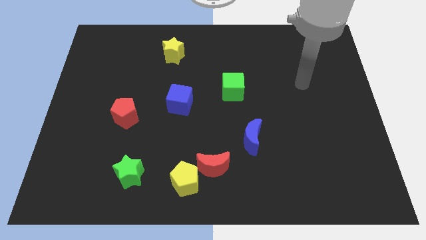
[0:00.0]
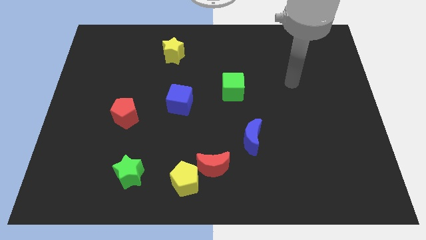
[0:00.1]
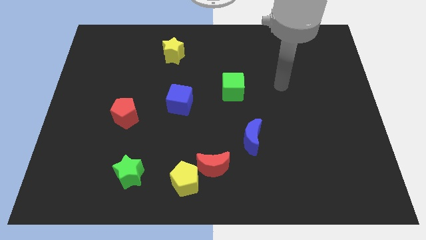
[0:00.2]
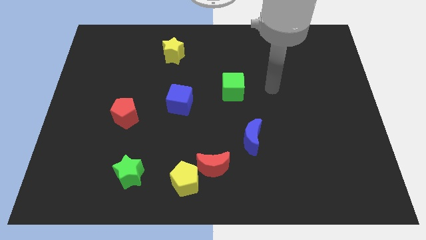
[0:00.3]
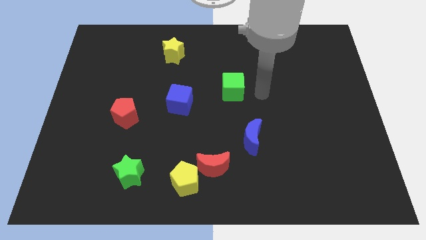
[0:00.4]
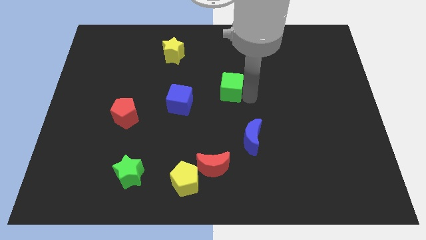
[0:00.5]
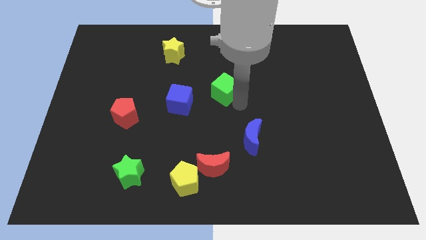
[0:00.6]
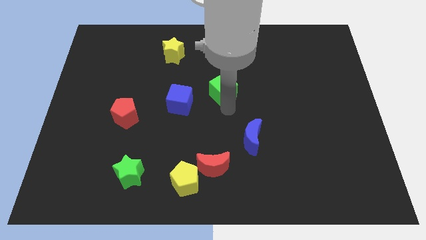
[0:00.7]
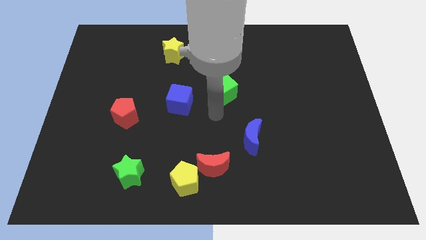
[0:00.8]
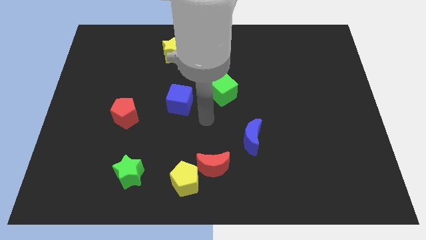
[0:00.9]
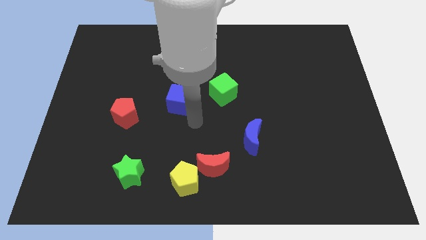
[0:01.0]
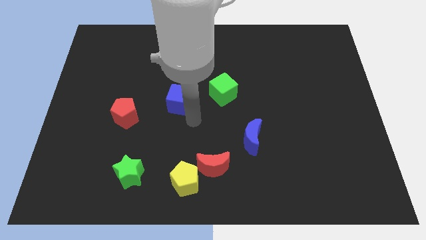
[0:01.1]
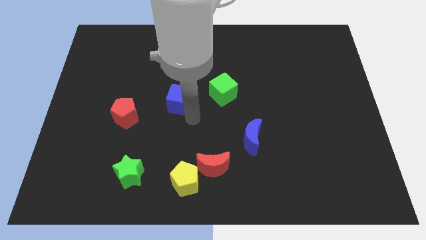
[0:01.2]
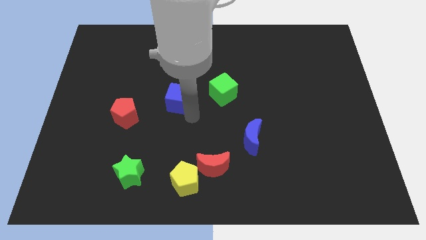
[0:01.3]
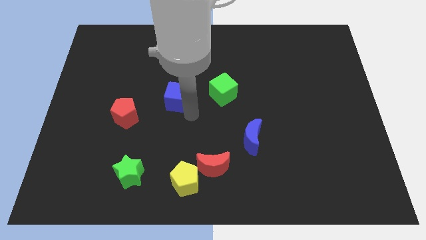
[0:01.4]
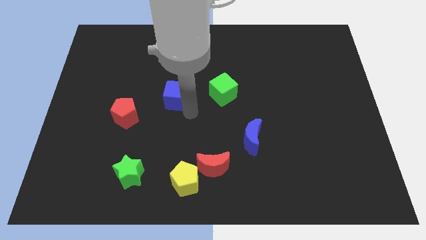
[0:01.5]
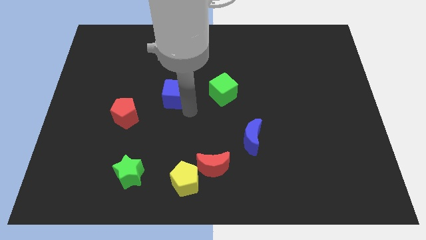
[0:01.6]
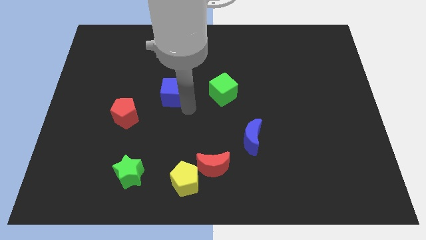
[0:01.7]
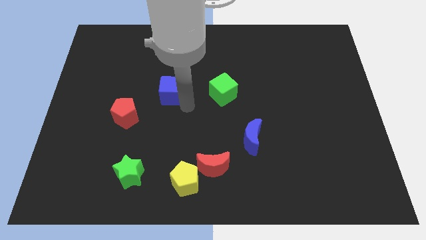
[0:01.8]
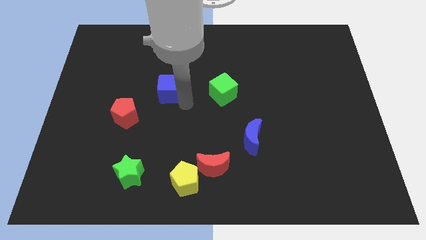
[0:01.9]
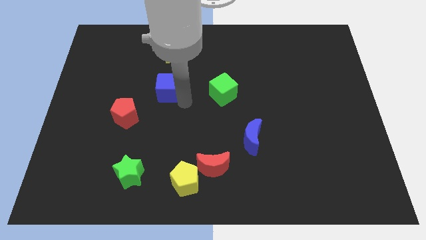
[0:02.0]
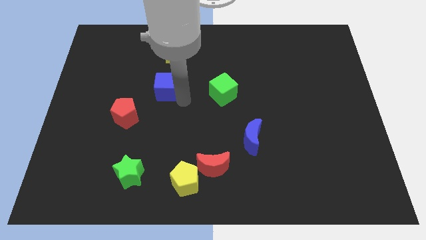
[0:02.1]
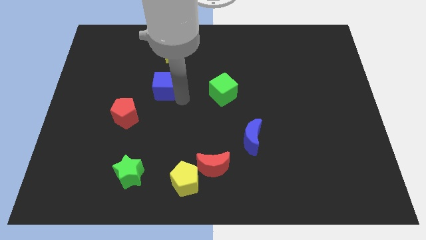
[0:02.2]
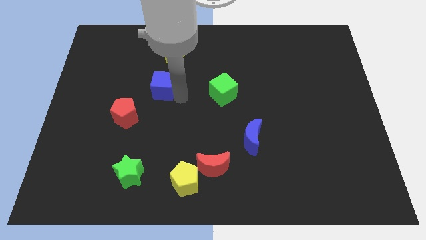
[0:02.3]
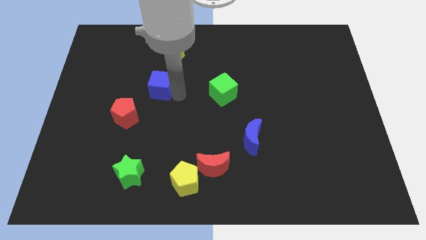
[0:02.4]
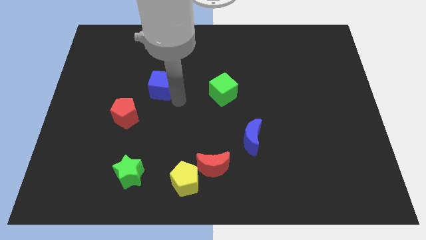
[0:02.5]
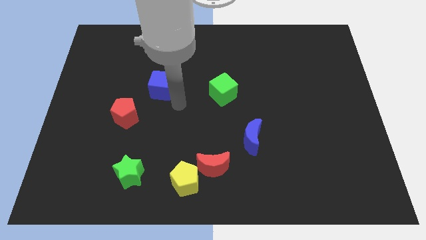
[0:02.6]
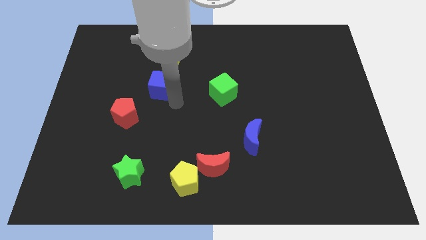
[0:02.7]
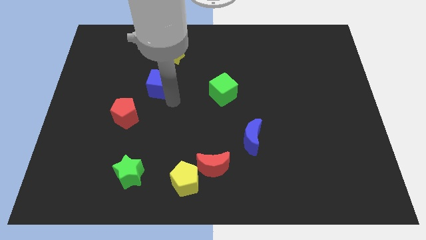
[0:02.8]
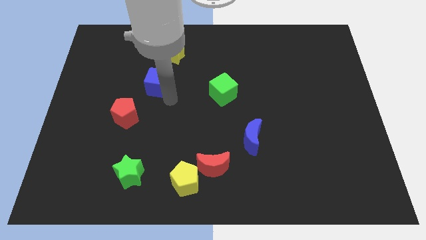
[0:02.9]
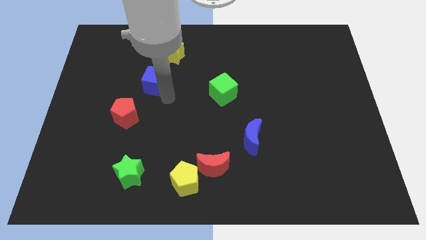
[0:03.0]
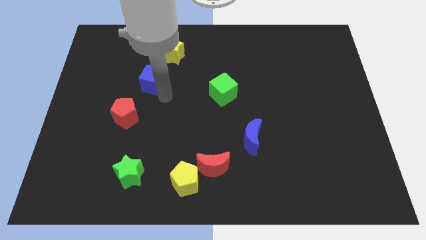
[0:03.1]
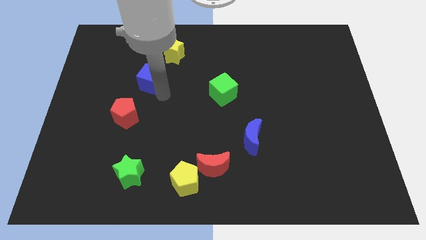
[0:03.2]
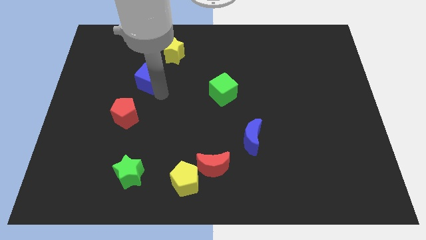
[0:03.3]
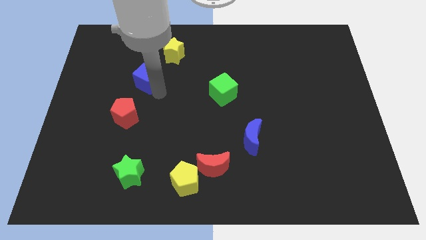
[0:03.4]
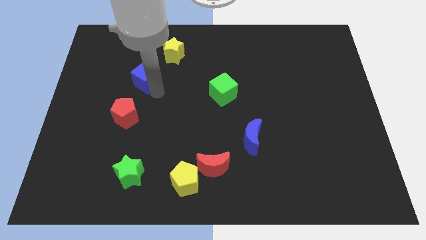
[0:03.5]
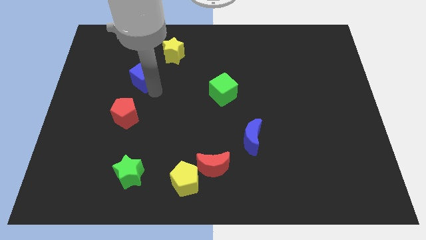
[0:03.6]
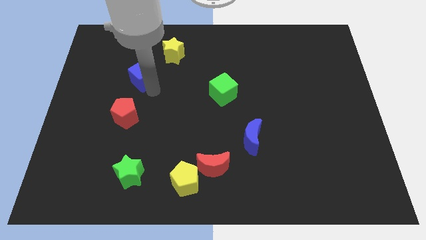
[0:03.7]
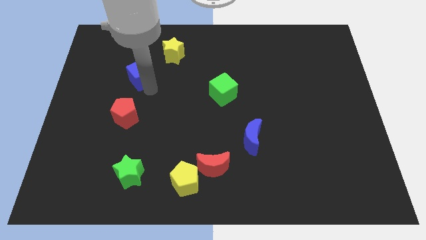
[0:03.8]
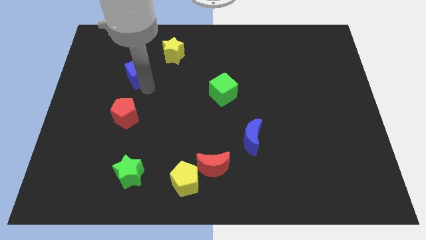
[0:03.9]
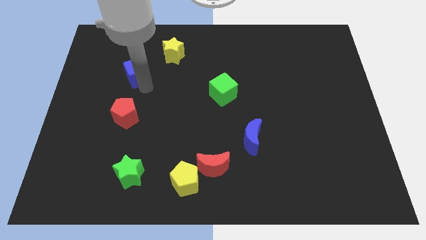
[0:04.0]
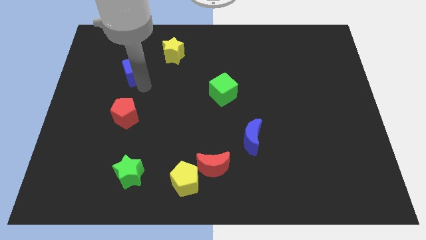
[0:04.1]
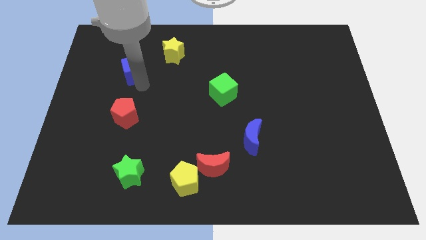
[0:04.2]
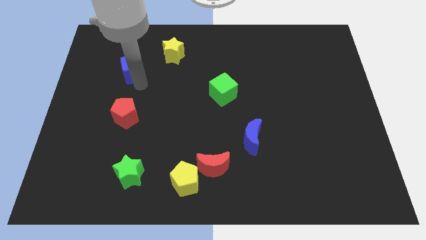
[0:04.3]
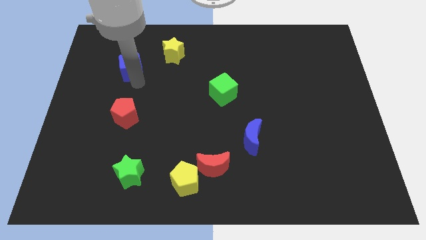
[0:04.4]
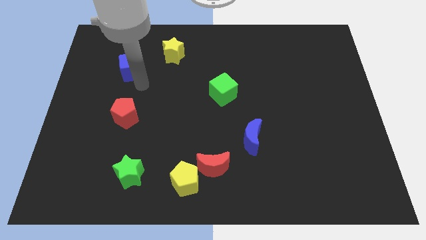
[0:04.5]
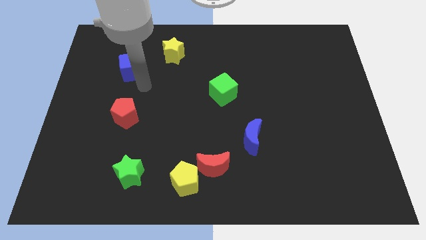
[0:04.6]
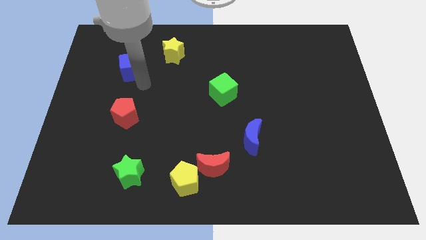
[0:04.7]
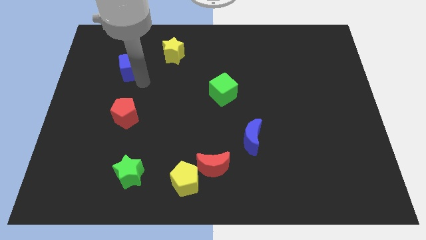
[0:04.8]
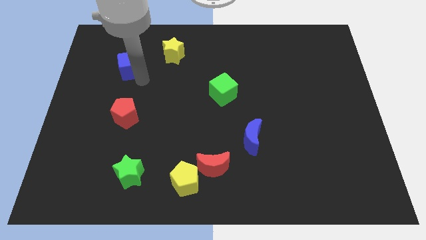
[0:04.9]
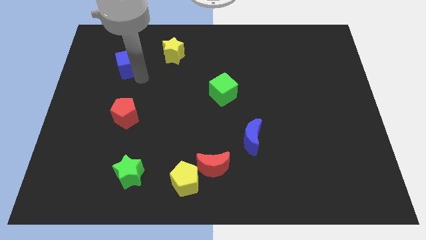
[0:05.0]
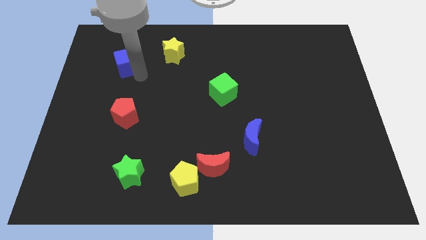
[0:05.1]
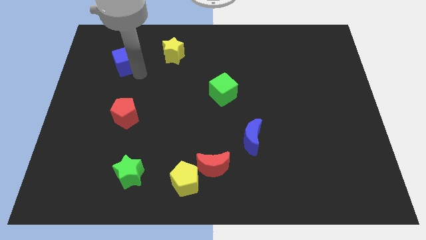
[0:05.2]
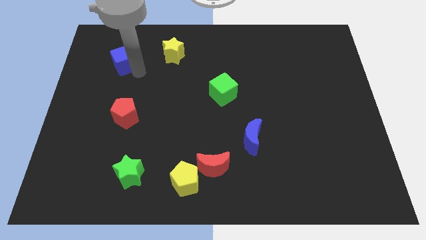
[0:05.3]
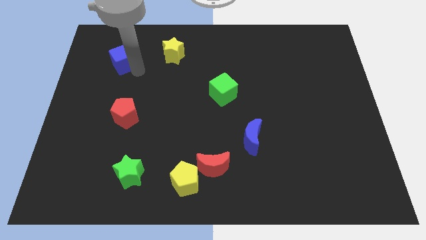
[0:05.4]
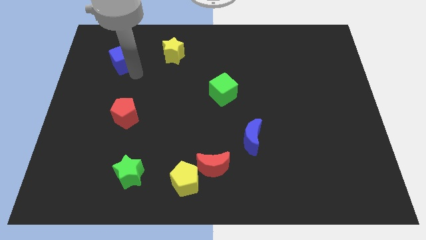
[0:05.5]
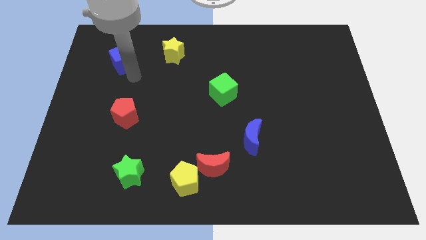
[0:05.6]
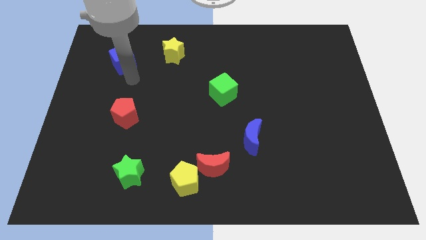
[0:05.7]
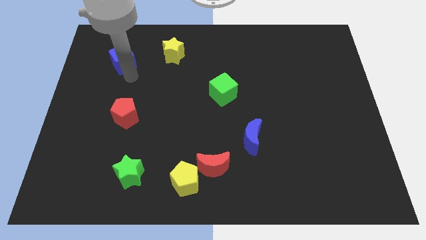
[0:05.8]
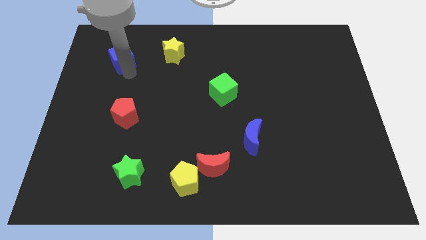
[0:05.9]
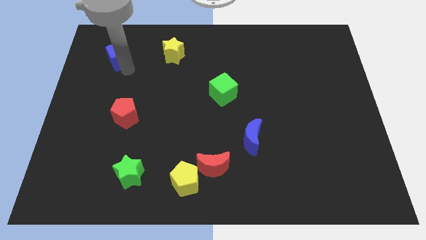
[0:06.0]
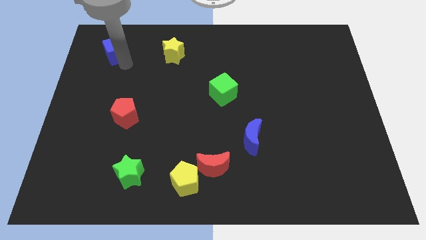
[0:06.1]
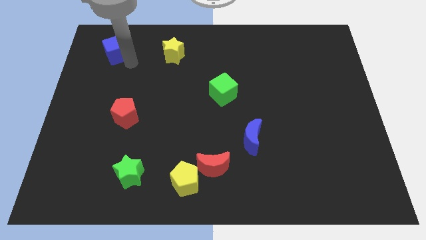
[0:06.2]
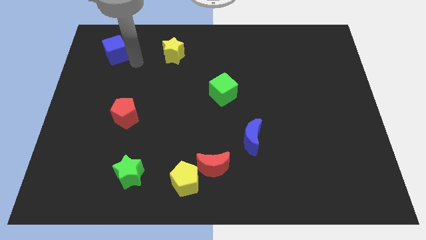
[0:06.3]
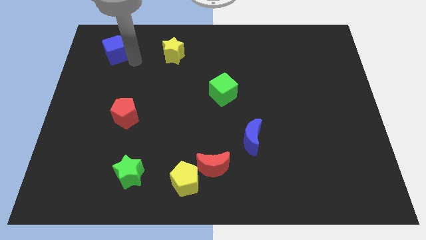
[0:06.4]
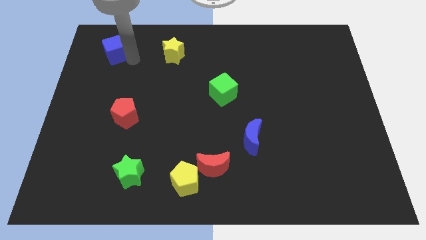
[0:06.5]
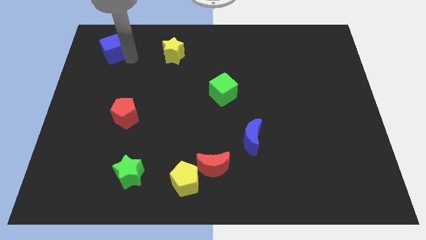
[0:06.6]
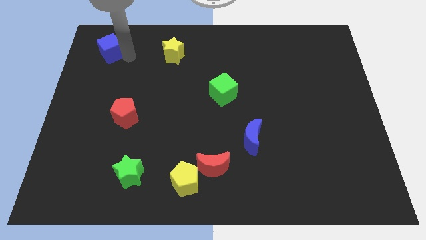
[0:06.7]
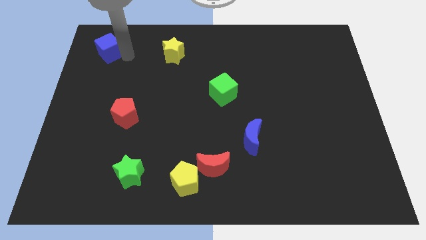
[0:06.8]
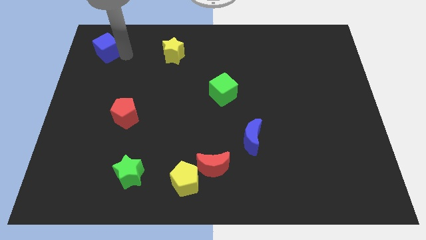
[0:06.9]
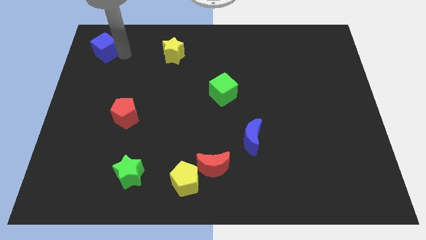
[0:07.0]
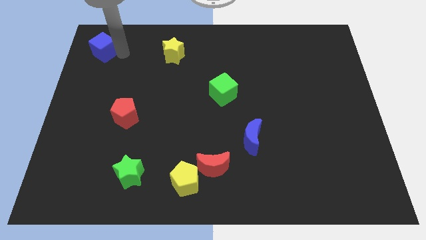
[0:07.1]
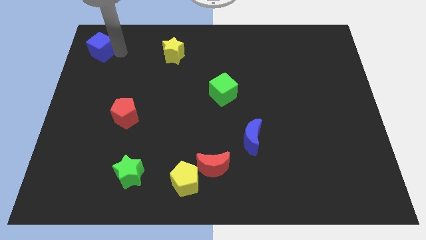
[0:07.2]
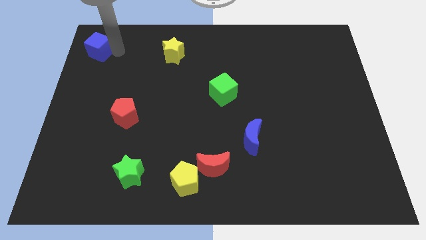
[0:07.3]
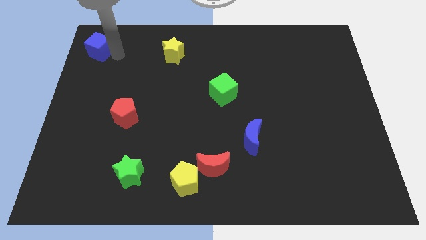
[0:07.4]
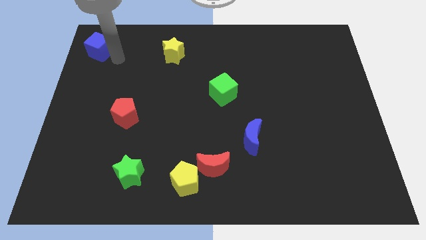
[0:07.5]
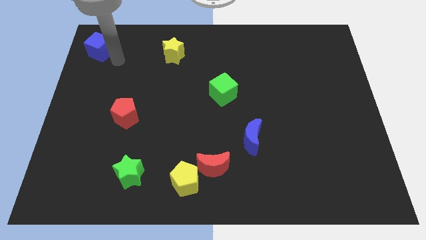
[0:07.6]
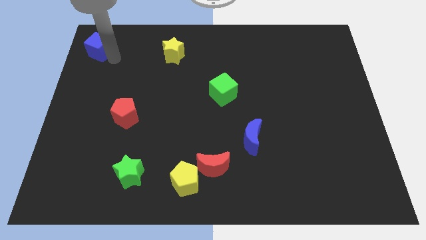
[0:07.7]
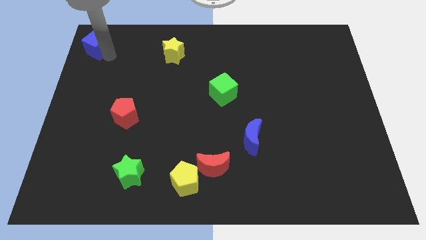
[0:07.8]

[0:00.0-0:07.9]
push the blue cube to the top left of the board
